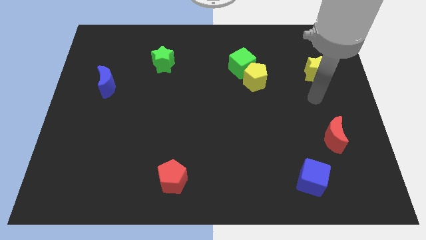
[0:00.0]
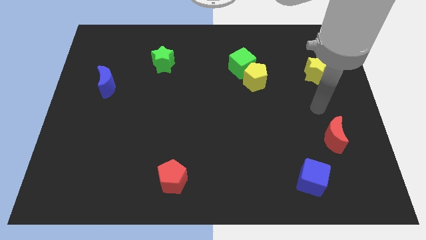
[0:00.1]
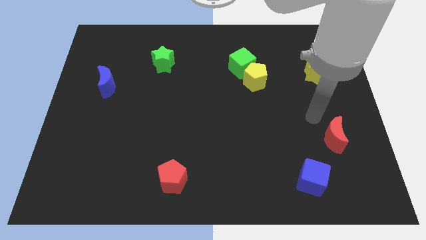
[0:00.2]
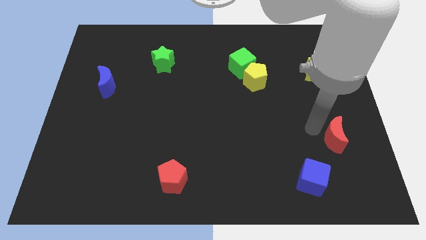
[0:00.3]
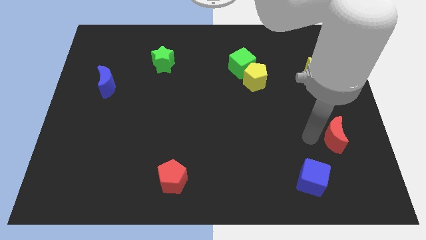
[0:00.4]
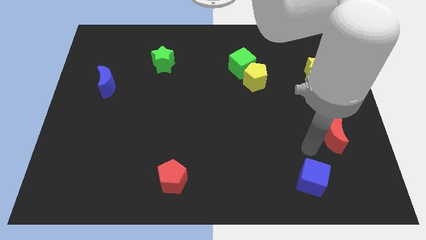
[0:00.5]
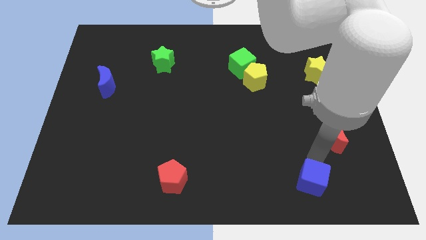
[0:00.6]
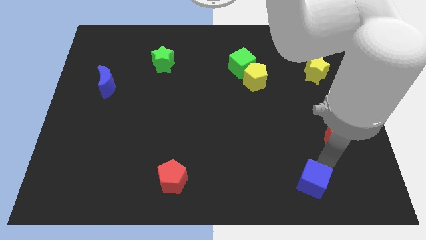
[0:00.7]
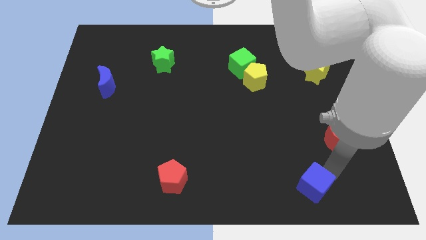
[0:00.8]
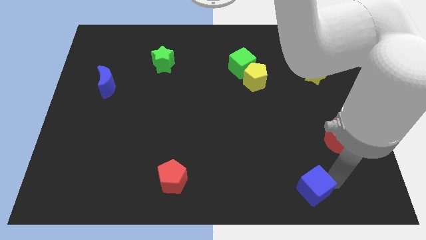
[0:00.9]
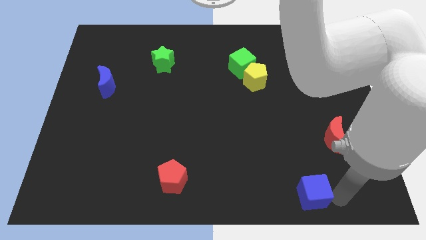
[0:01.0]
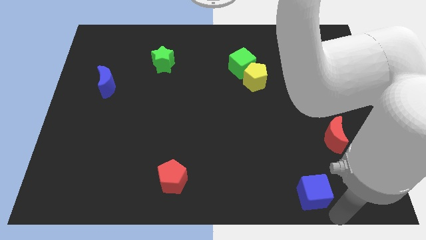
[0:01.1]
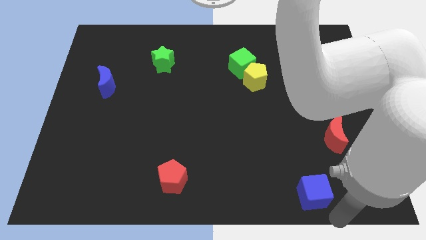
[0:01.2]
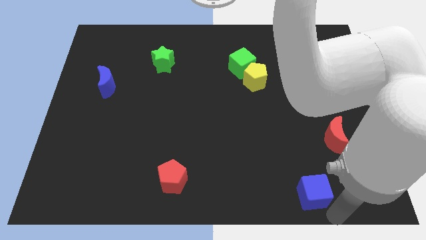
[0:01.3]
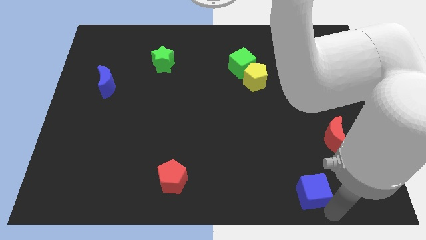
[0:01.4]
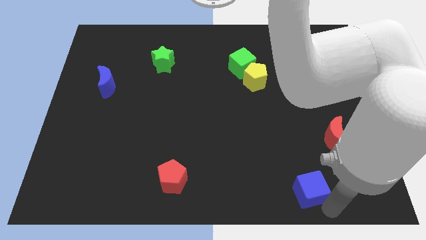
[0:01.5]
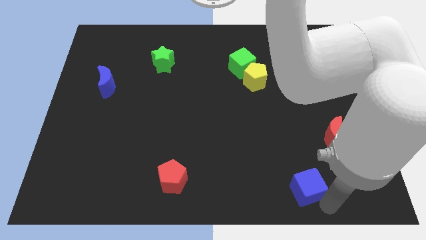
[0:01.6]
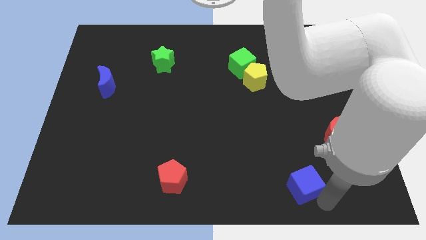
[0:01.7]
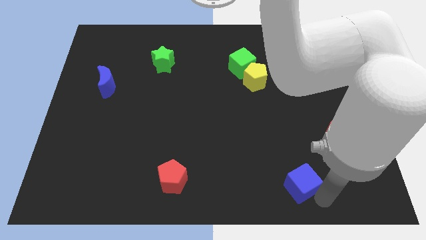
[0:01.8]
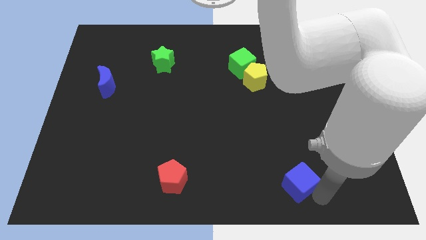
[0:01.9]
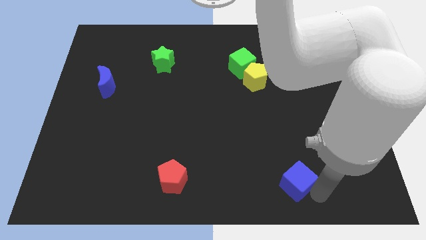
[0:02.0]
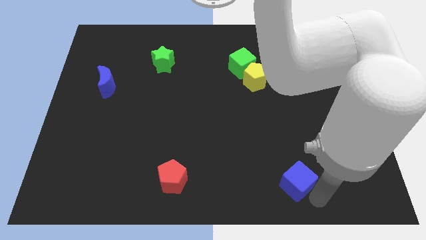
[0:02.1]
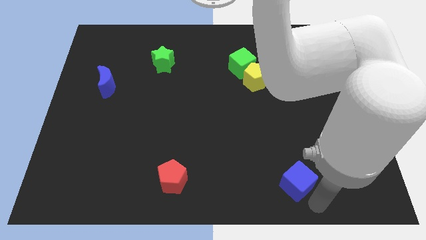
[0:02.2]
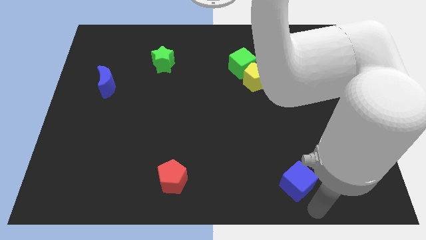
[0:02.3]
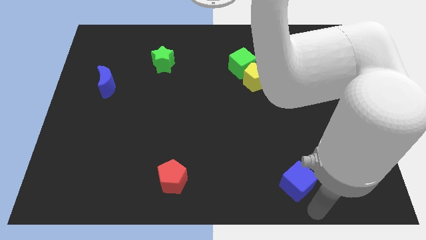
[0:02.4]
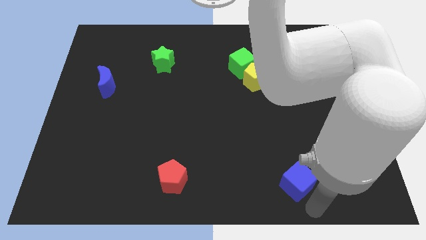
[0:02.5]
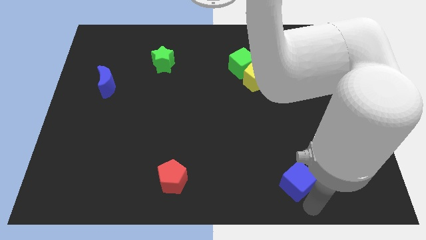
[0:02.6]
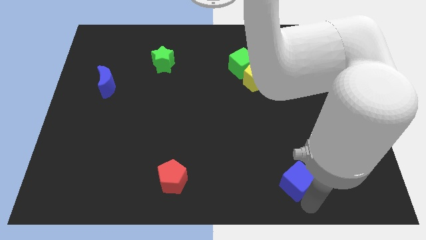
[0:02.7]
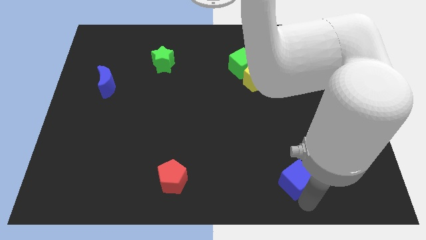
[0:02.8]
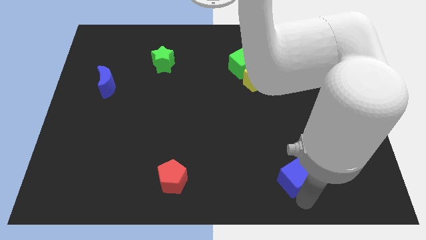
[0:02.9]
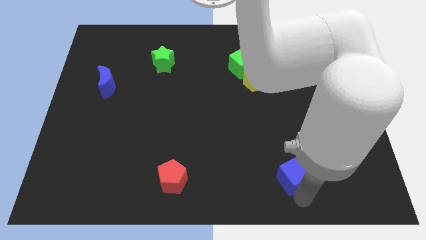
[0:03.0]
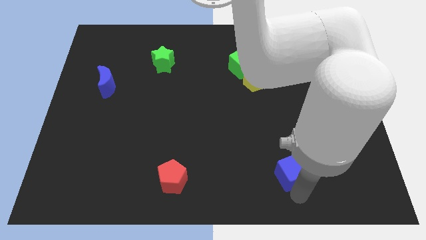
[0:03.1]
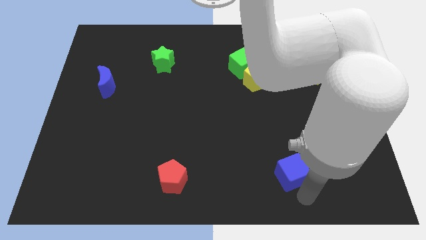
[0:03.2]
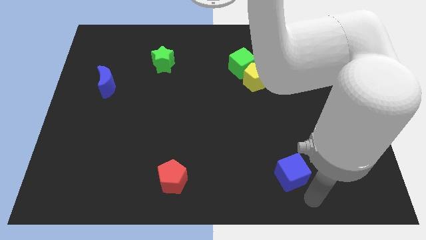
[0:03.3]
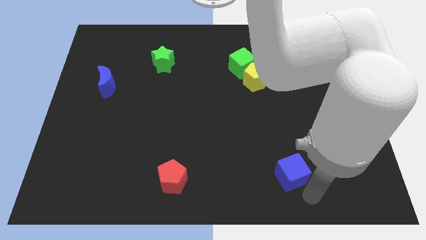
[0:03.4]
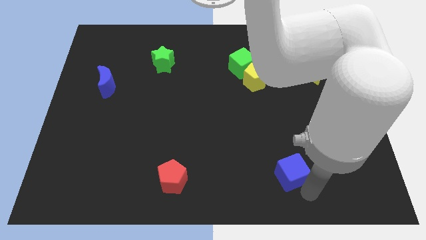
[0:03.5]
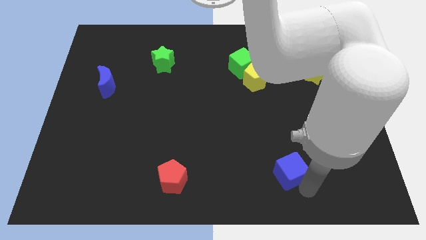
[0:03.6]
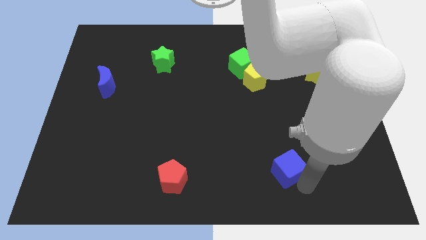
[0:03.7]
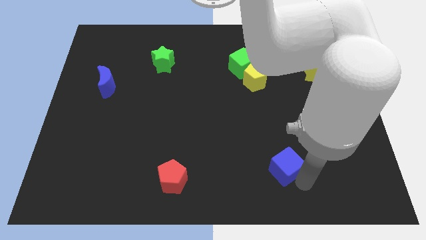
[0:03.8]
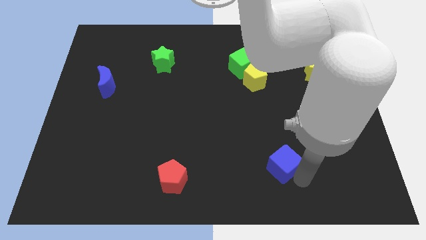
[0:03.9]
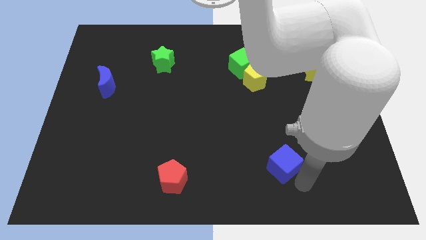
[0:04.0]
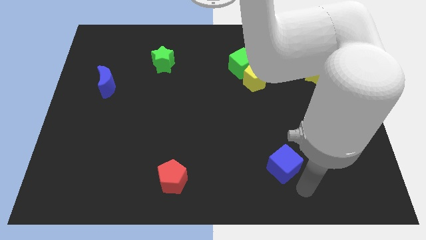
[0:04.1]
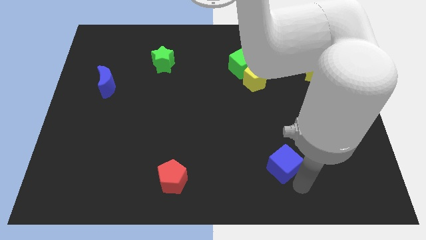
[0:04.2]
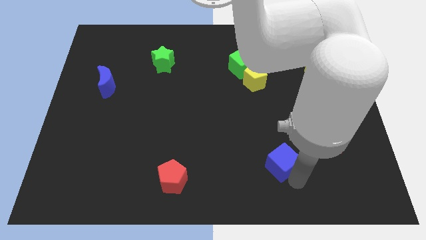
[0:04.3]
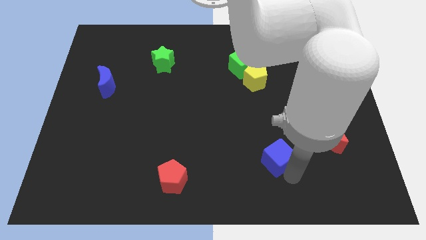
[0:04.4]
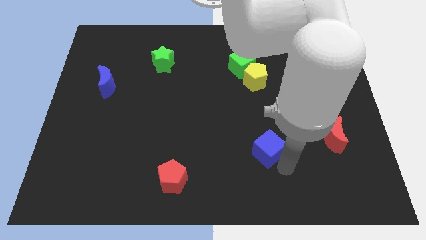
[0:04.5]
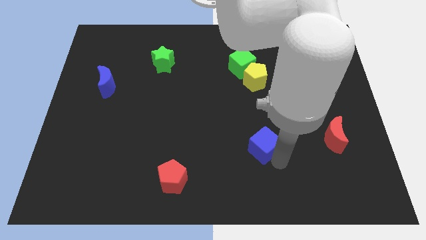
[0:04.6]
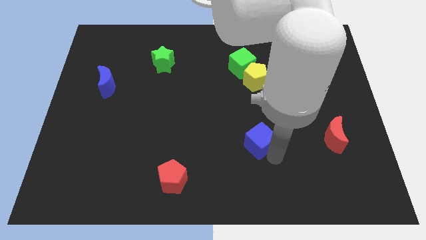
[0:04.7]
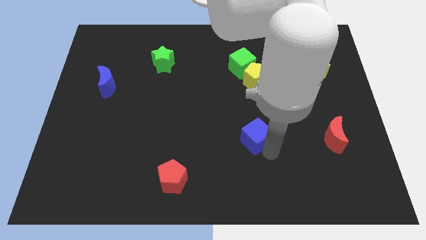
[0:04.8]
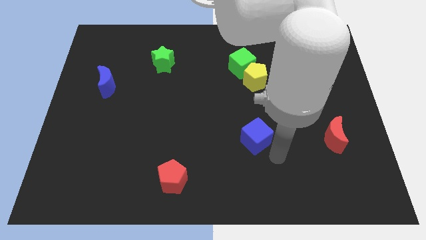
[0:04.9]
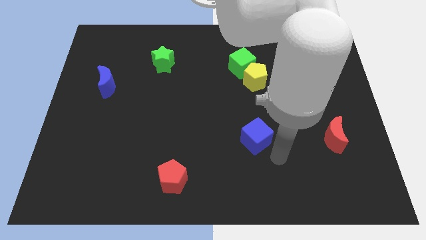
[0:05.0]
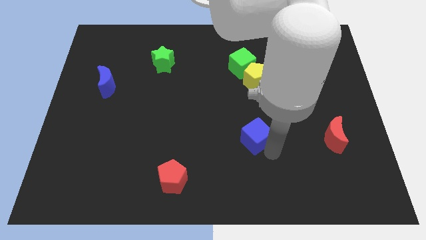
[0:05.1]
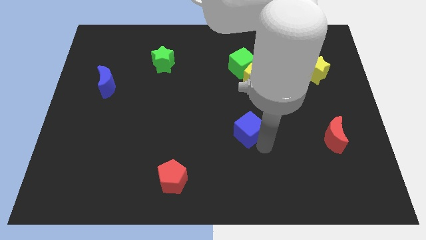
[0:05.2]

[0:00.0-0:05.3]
put the blue cube to the center of the board
